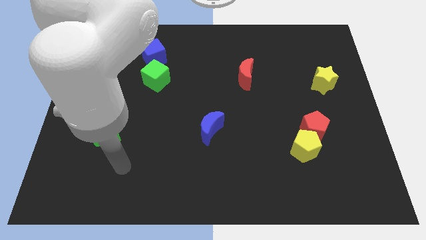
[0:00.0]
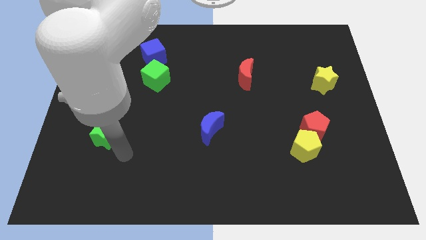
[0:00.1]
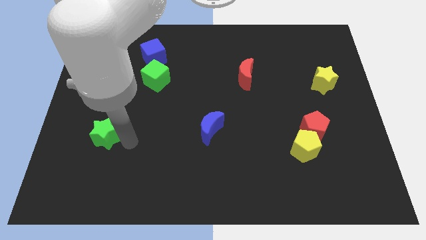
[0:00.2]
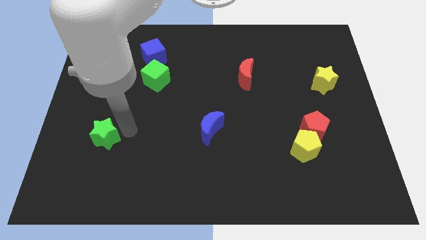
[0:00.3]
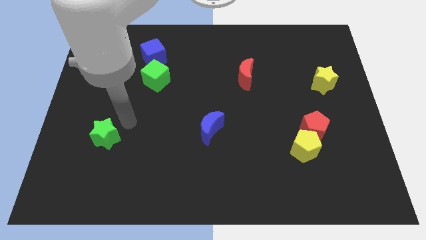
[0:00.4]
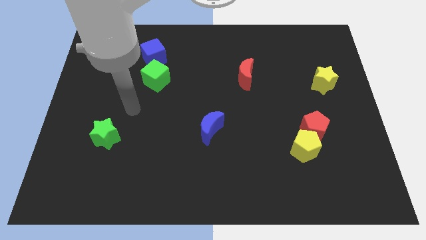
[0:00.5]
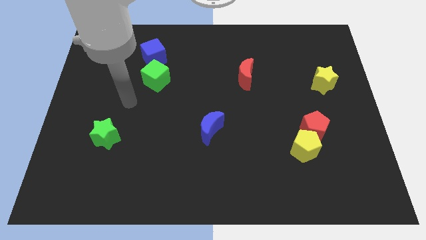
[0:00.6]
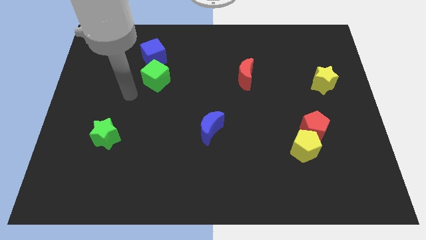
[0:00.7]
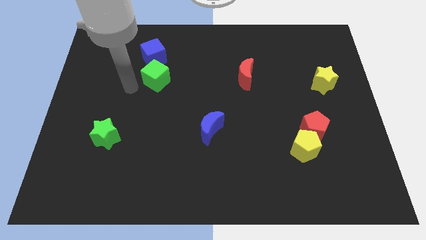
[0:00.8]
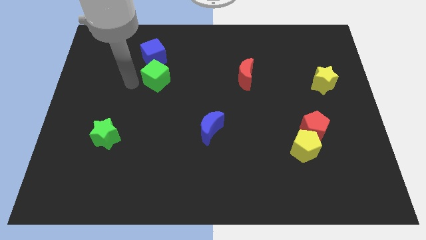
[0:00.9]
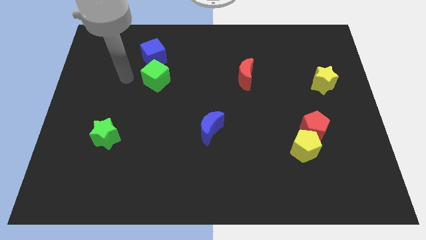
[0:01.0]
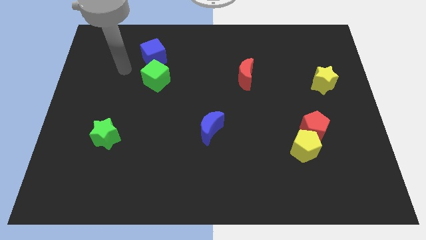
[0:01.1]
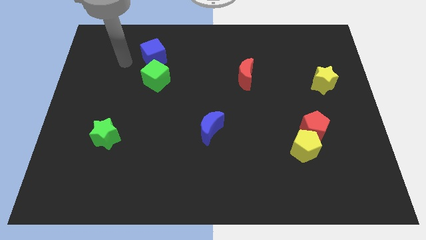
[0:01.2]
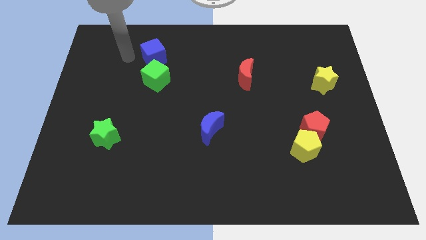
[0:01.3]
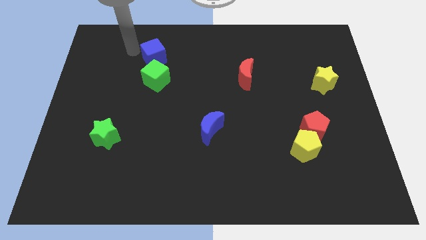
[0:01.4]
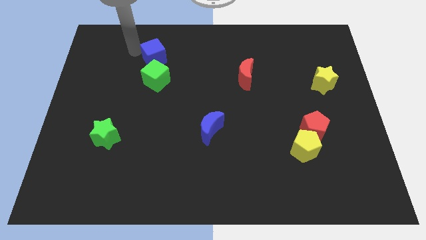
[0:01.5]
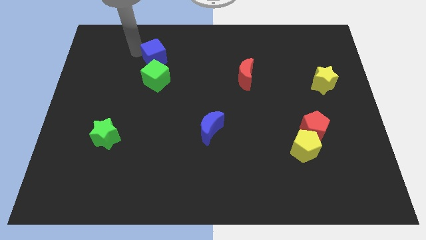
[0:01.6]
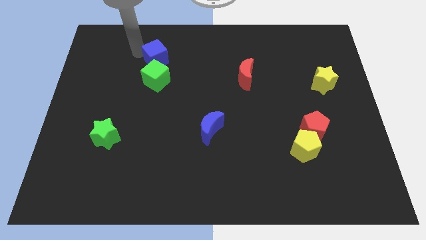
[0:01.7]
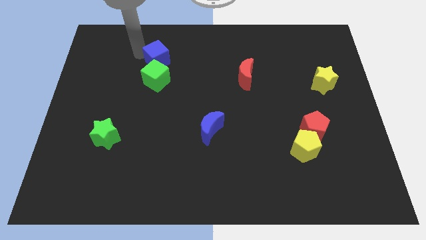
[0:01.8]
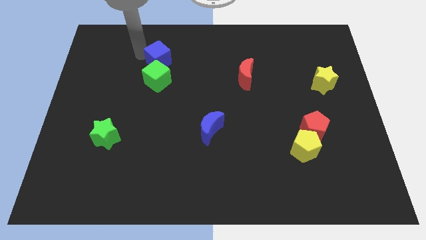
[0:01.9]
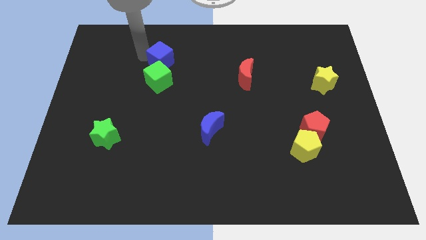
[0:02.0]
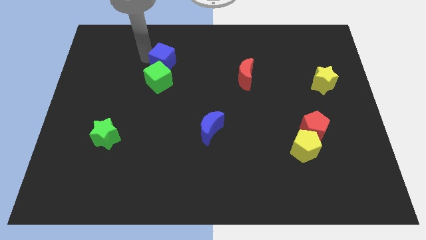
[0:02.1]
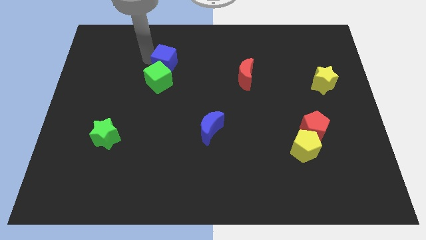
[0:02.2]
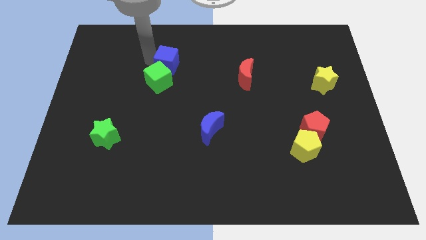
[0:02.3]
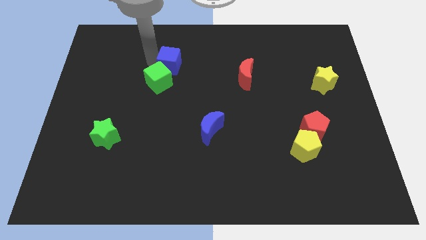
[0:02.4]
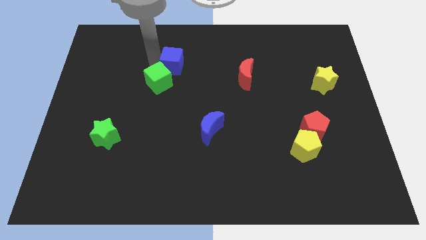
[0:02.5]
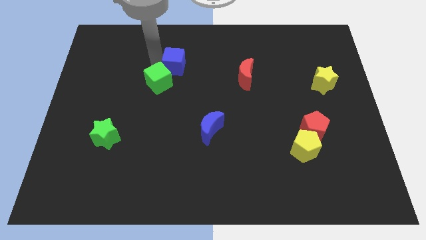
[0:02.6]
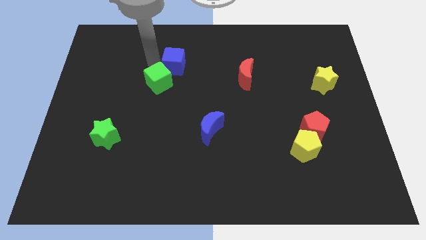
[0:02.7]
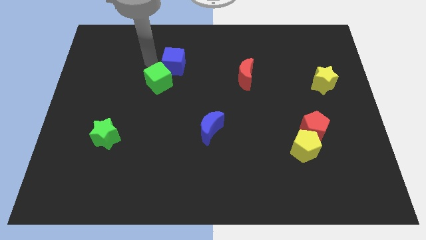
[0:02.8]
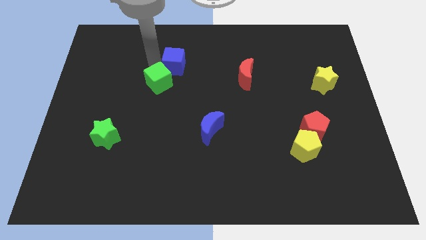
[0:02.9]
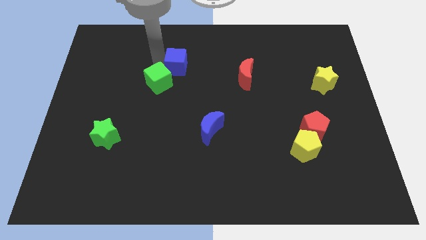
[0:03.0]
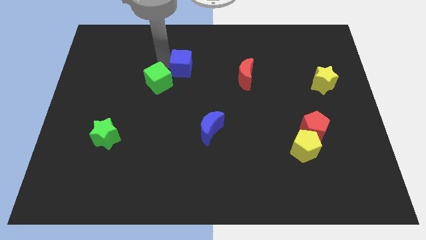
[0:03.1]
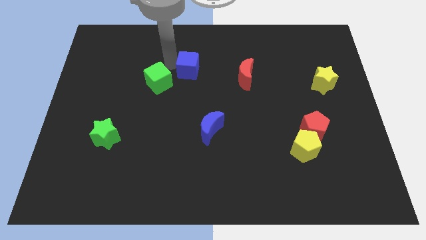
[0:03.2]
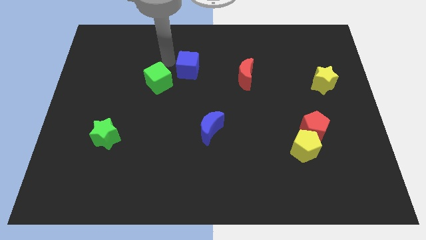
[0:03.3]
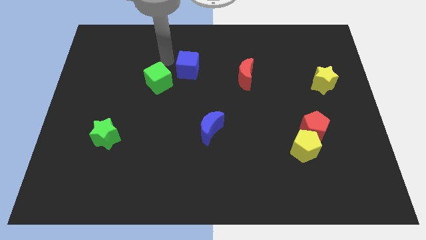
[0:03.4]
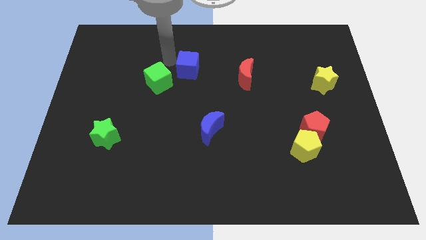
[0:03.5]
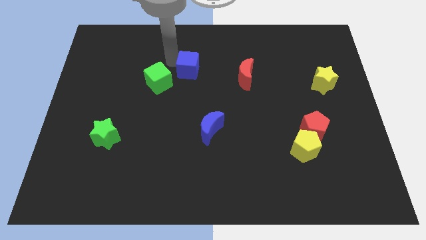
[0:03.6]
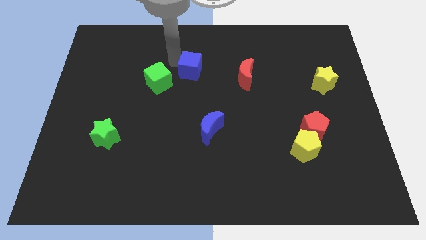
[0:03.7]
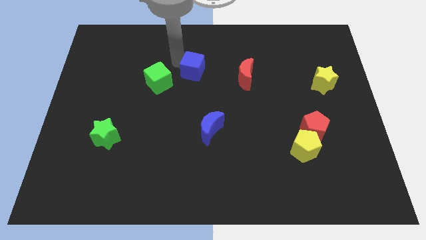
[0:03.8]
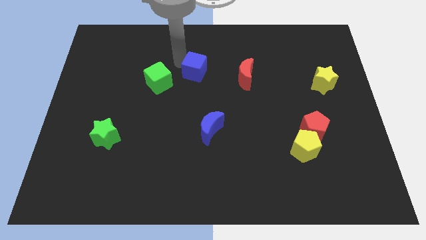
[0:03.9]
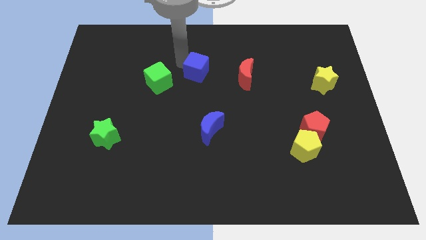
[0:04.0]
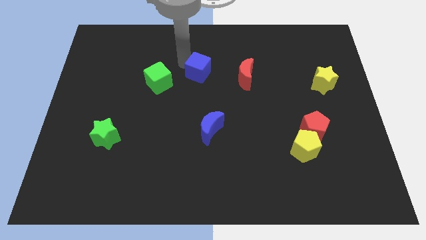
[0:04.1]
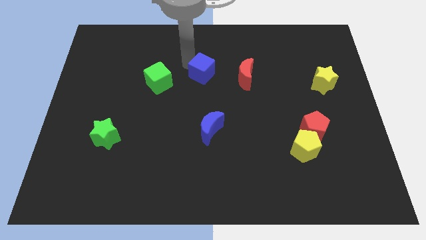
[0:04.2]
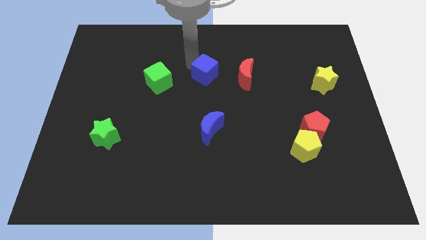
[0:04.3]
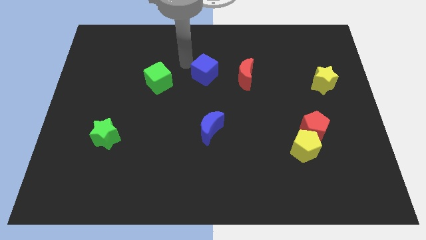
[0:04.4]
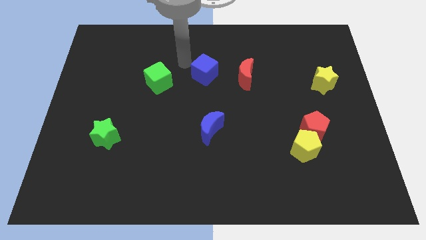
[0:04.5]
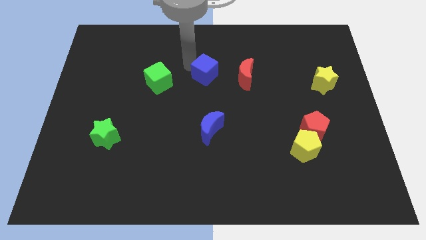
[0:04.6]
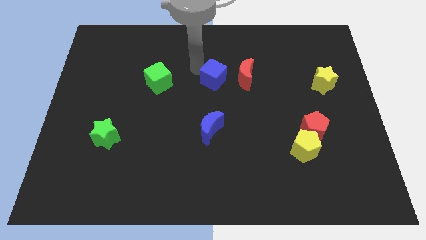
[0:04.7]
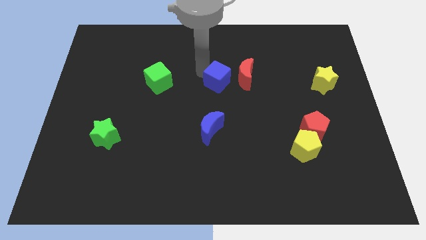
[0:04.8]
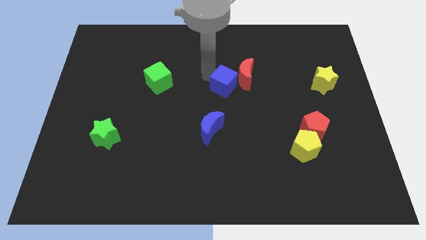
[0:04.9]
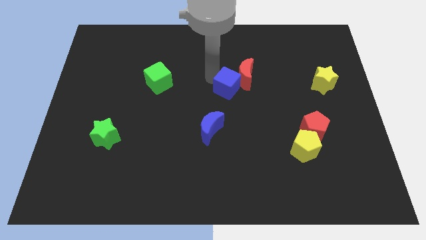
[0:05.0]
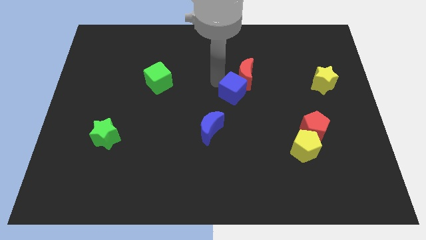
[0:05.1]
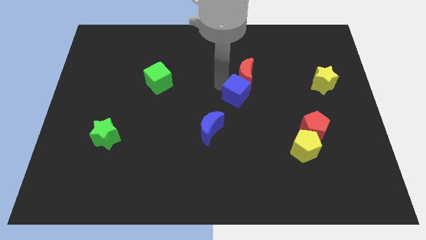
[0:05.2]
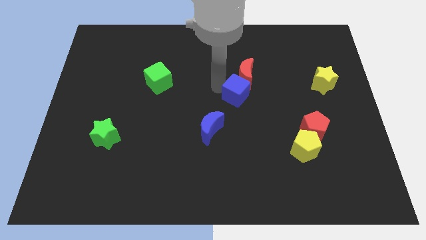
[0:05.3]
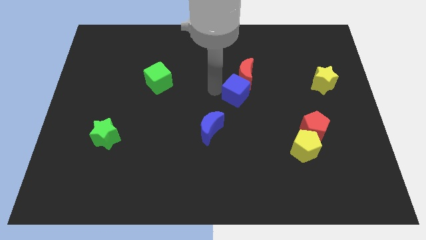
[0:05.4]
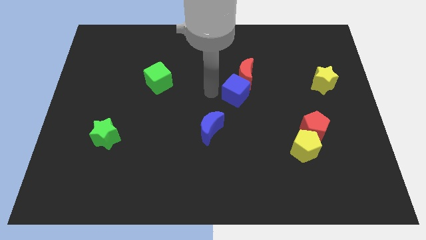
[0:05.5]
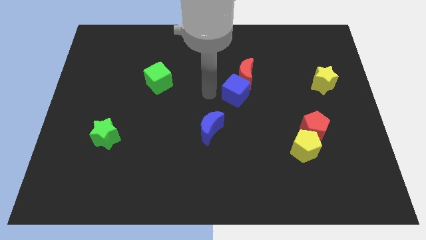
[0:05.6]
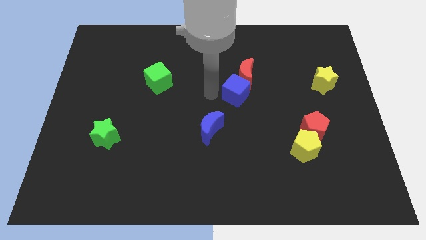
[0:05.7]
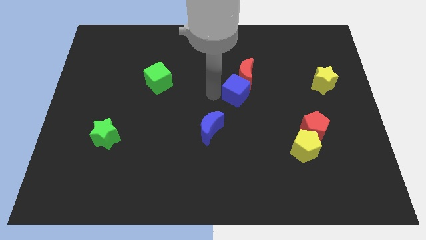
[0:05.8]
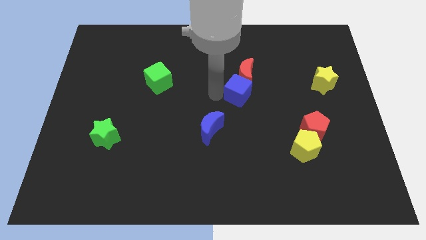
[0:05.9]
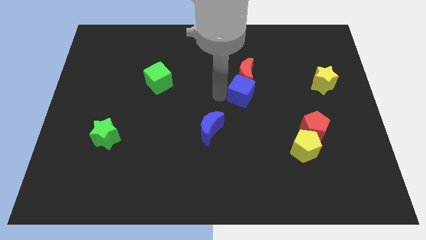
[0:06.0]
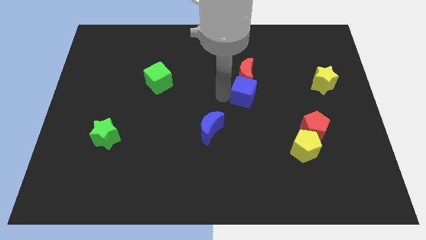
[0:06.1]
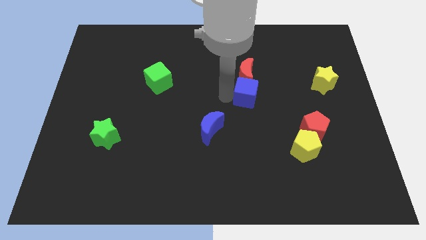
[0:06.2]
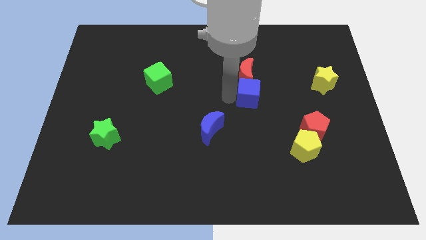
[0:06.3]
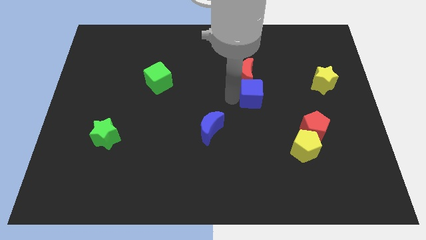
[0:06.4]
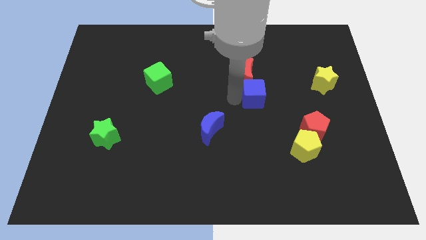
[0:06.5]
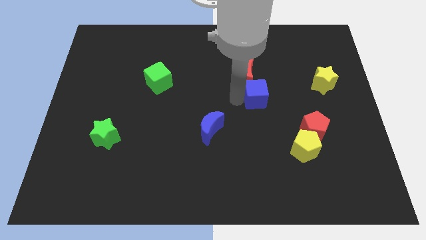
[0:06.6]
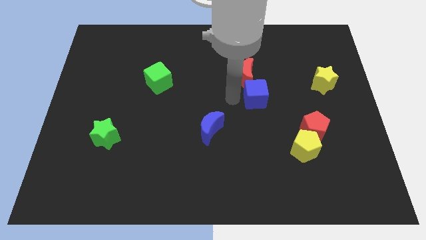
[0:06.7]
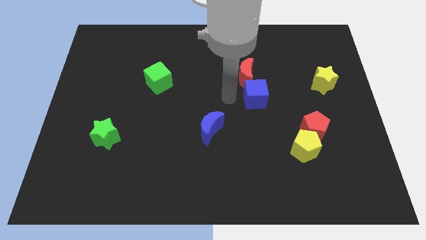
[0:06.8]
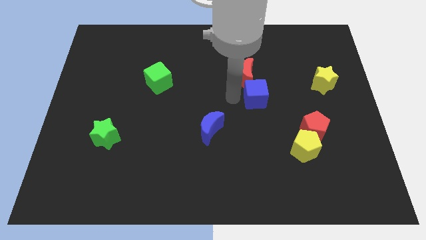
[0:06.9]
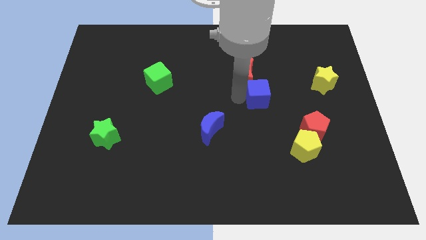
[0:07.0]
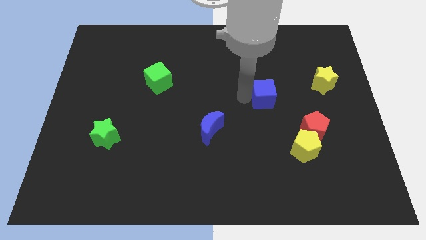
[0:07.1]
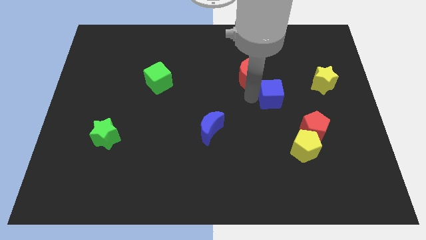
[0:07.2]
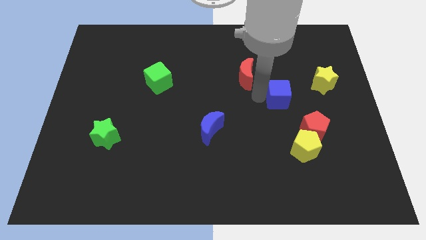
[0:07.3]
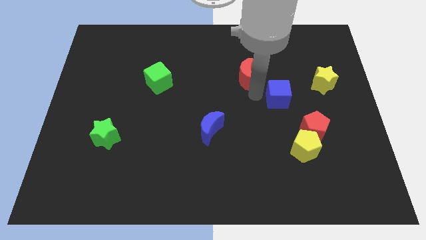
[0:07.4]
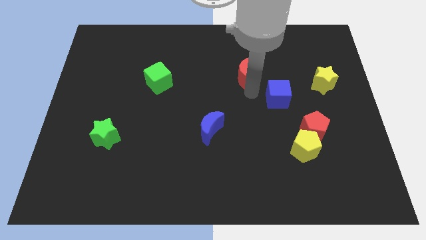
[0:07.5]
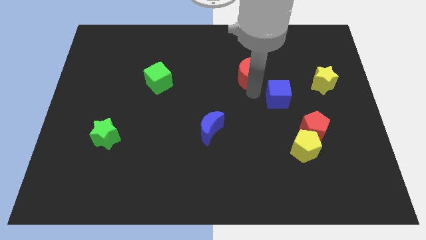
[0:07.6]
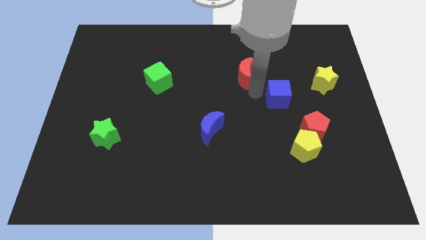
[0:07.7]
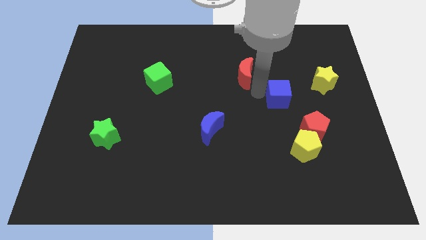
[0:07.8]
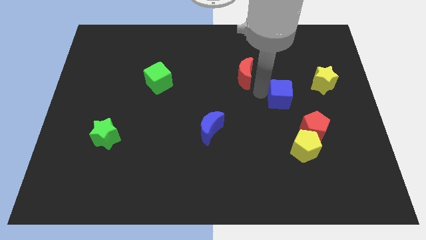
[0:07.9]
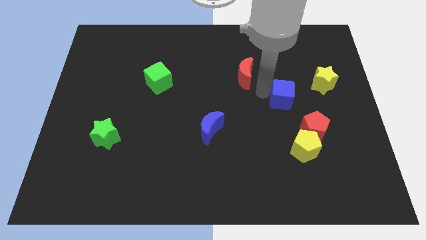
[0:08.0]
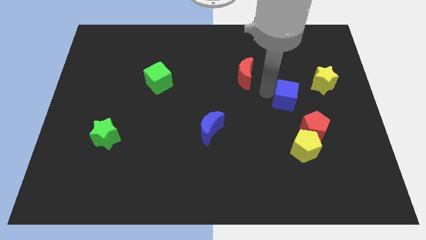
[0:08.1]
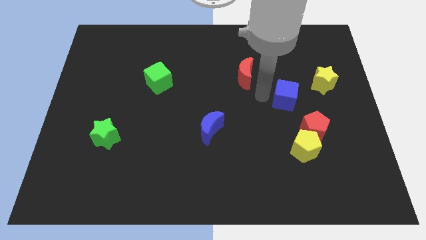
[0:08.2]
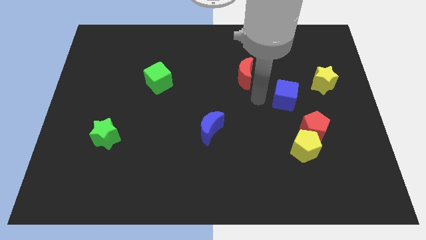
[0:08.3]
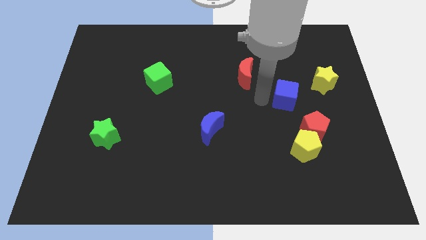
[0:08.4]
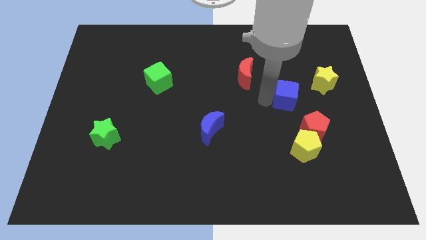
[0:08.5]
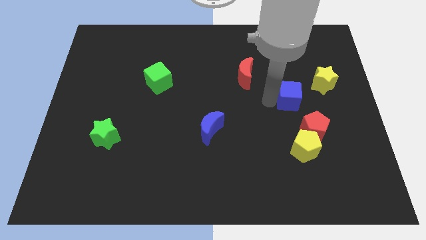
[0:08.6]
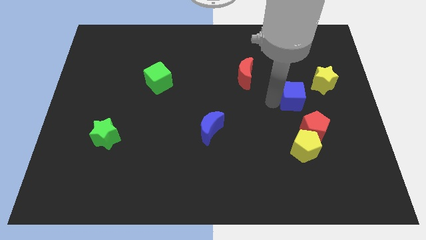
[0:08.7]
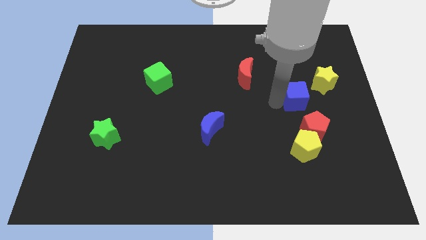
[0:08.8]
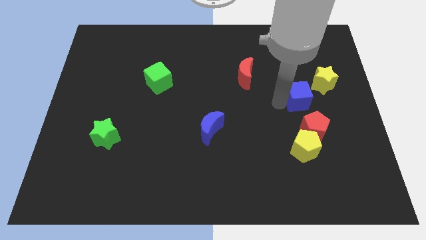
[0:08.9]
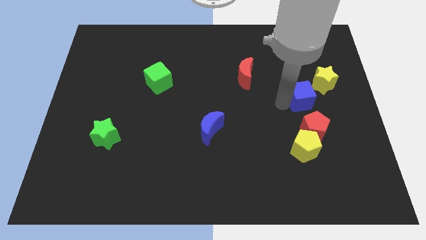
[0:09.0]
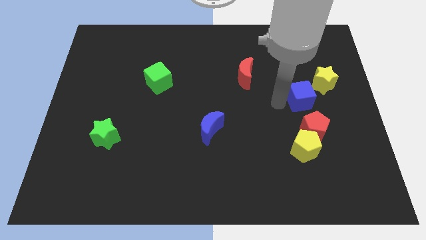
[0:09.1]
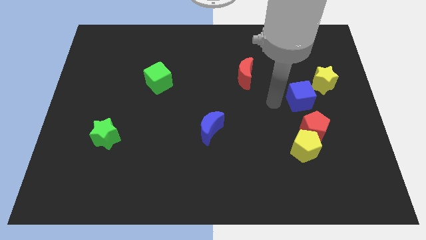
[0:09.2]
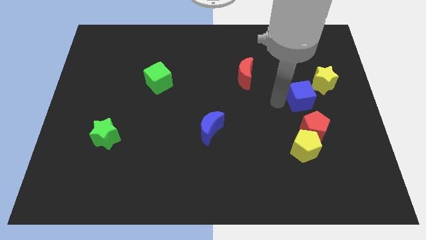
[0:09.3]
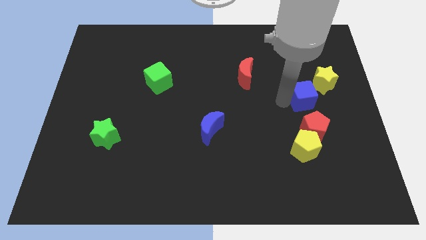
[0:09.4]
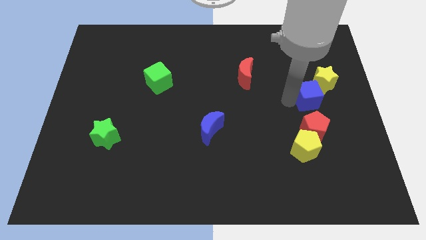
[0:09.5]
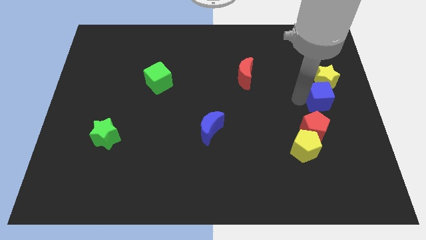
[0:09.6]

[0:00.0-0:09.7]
slide the blue cube to the right side
